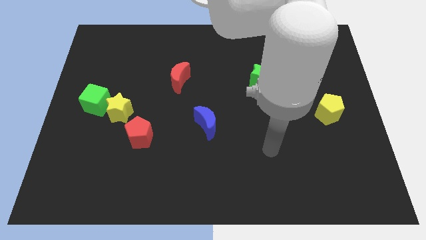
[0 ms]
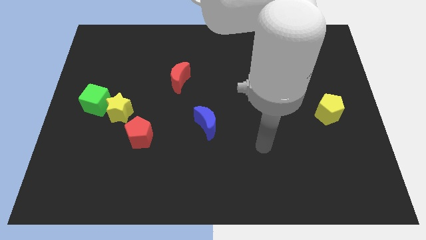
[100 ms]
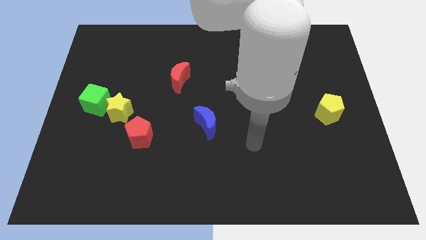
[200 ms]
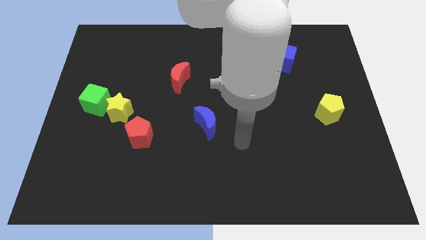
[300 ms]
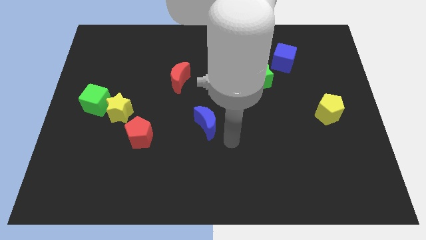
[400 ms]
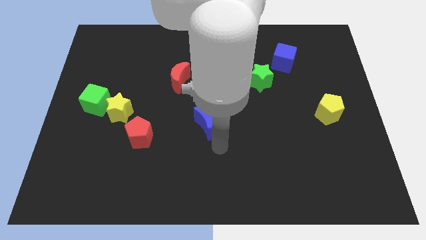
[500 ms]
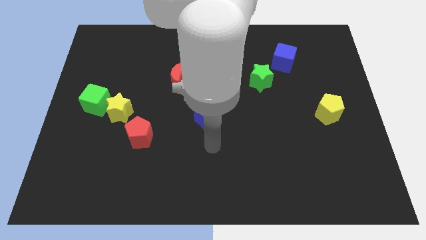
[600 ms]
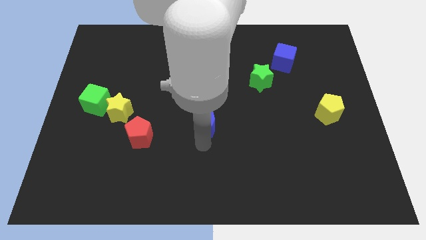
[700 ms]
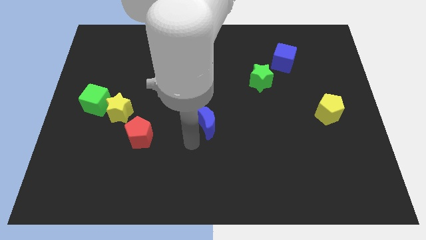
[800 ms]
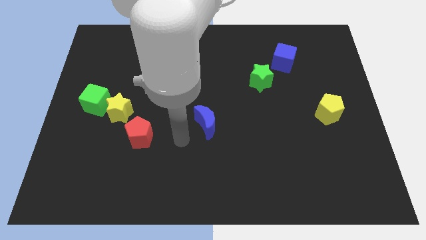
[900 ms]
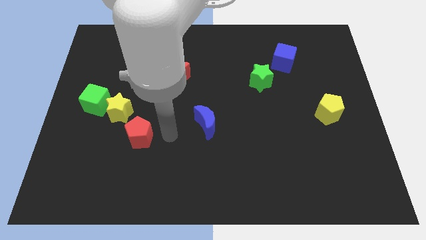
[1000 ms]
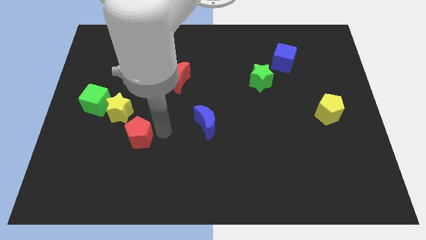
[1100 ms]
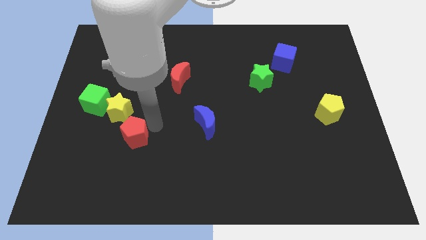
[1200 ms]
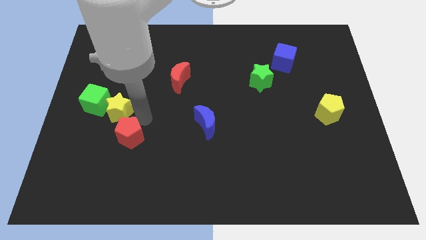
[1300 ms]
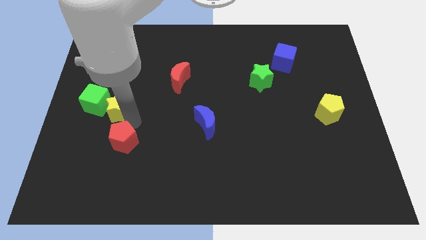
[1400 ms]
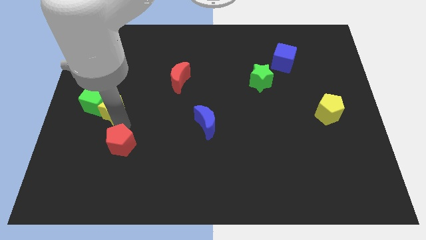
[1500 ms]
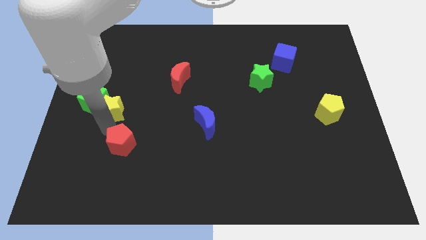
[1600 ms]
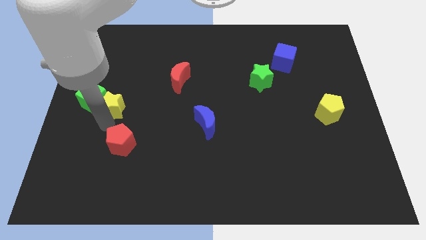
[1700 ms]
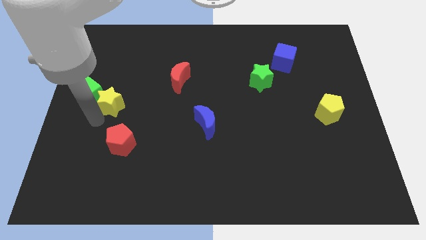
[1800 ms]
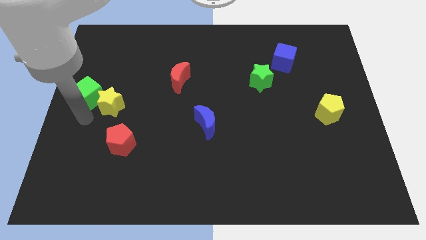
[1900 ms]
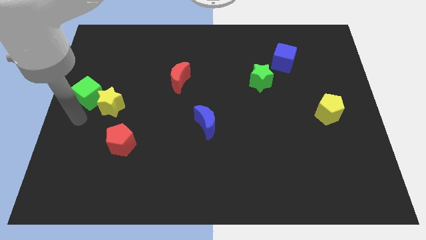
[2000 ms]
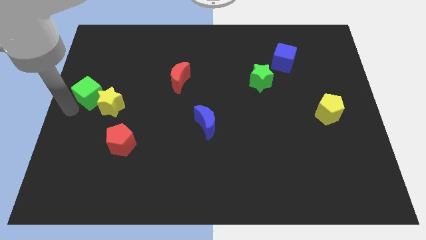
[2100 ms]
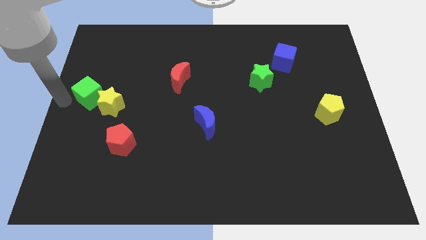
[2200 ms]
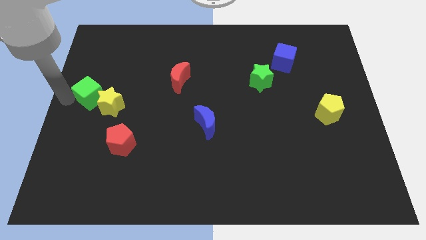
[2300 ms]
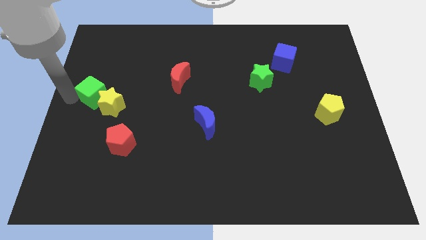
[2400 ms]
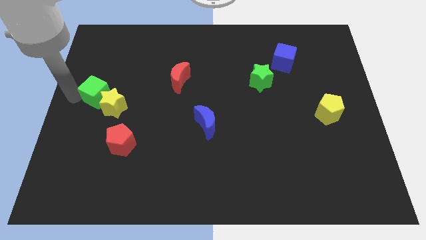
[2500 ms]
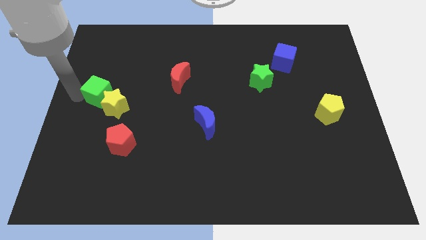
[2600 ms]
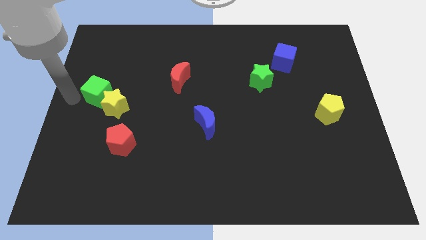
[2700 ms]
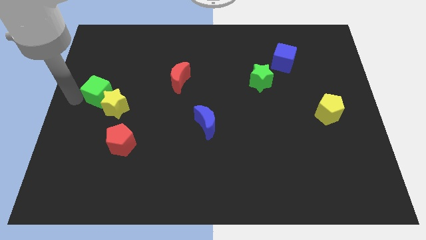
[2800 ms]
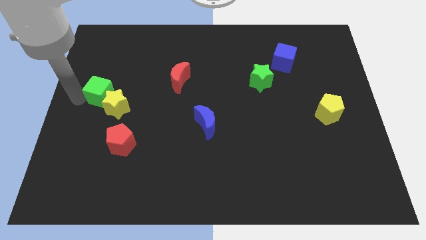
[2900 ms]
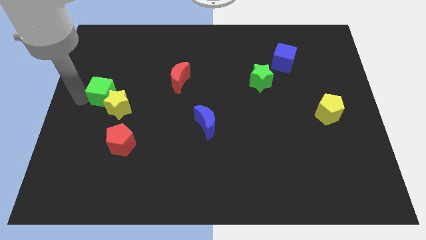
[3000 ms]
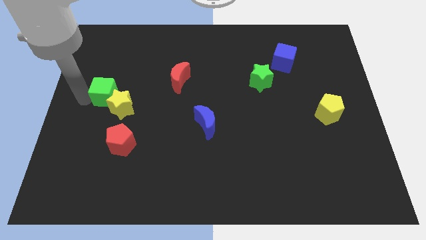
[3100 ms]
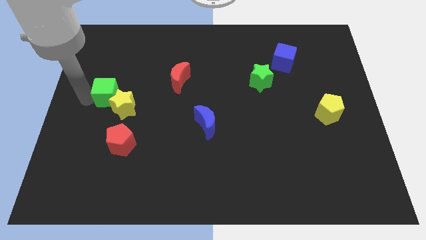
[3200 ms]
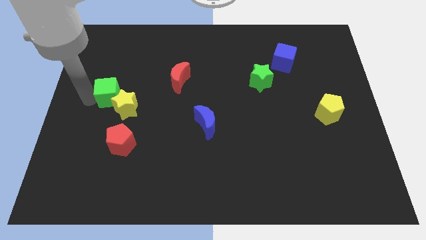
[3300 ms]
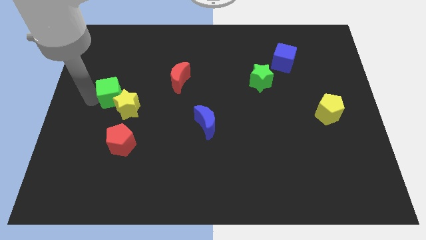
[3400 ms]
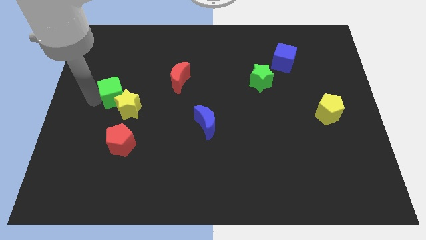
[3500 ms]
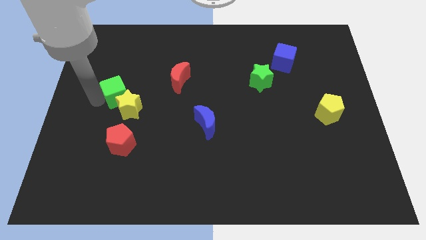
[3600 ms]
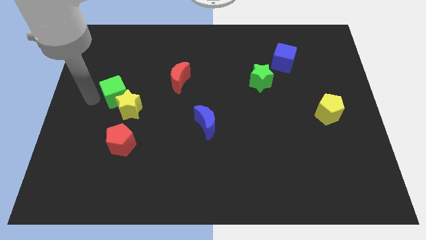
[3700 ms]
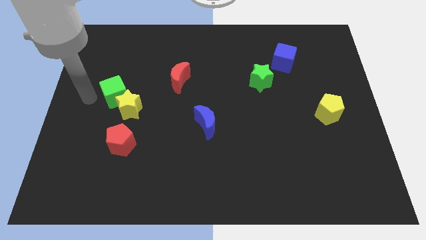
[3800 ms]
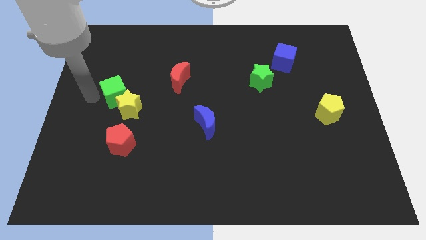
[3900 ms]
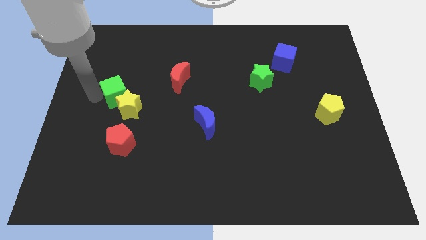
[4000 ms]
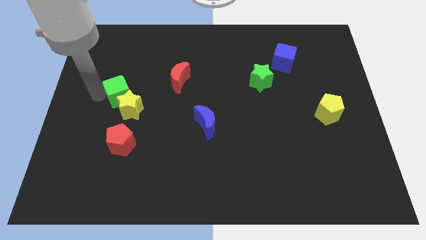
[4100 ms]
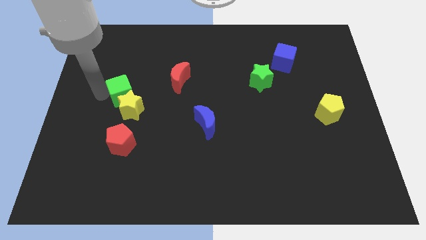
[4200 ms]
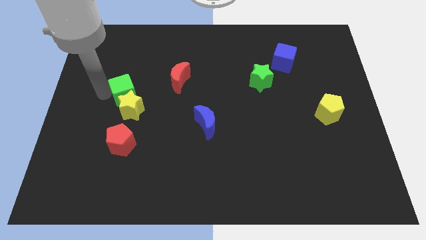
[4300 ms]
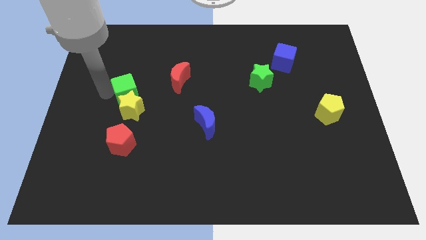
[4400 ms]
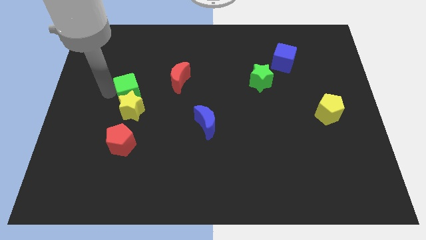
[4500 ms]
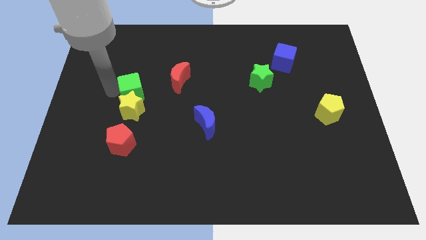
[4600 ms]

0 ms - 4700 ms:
move the green cube somewhat to the right

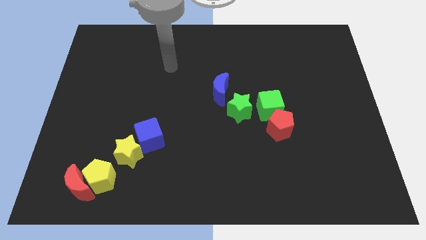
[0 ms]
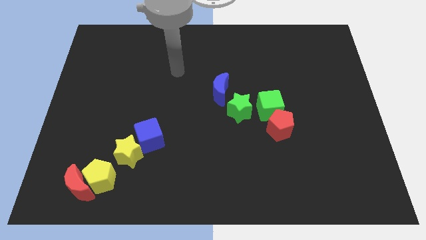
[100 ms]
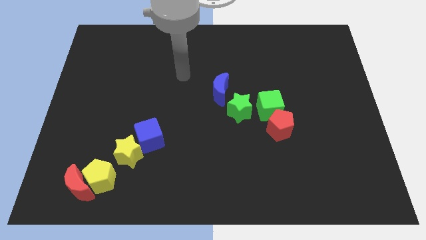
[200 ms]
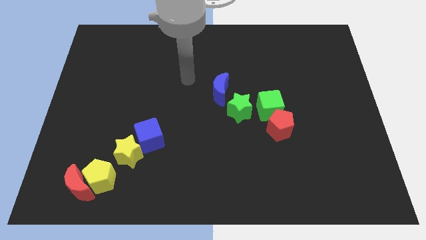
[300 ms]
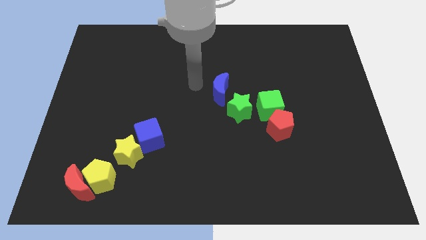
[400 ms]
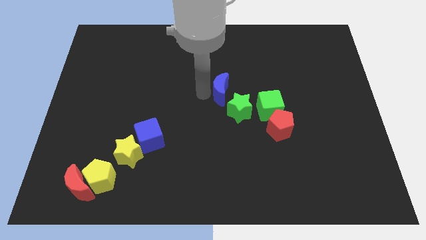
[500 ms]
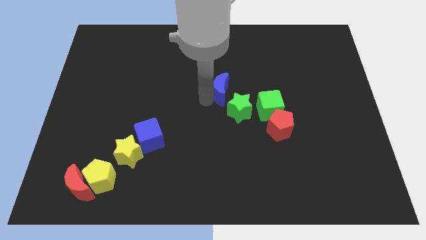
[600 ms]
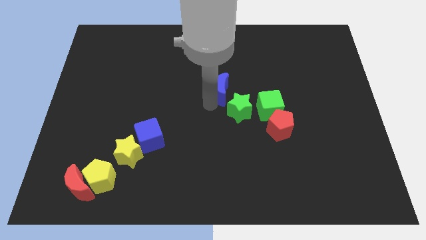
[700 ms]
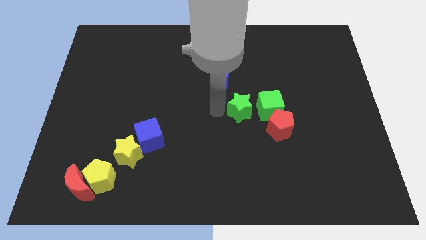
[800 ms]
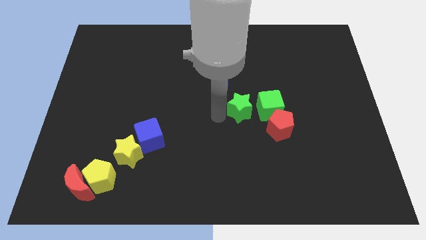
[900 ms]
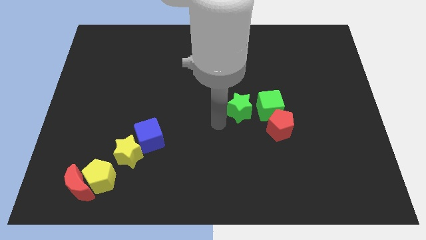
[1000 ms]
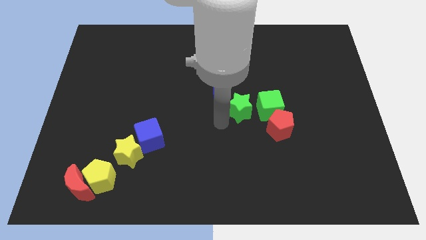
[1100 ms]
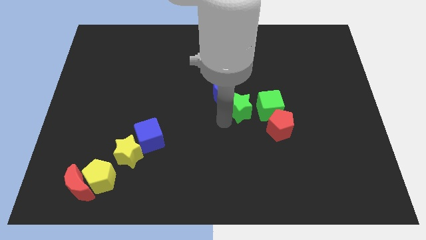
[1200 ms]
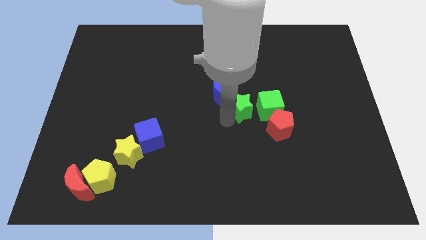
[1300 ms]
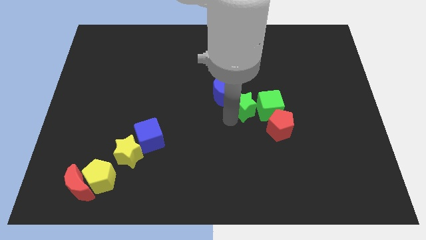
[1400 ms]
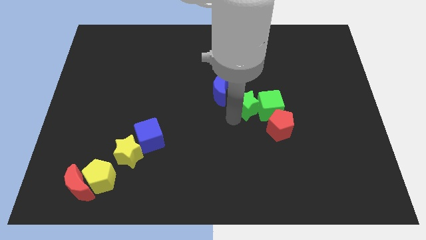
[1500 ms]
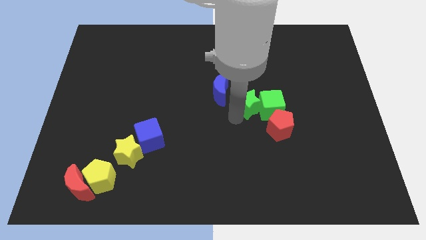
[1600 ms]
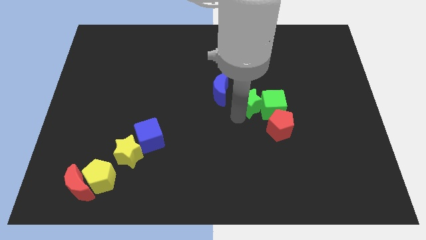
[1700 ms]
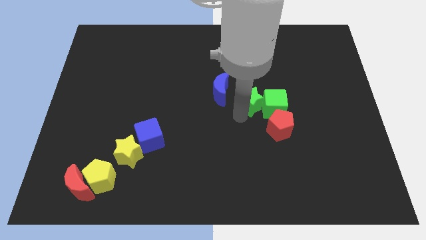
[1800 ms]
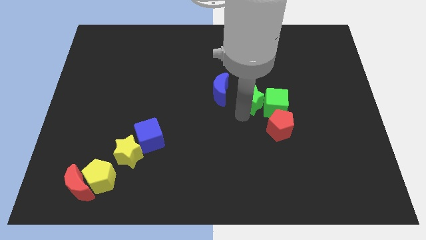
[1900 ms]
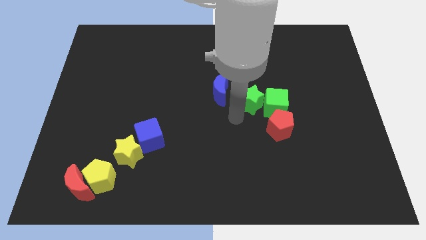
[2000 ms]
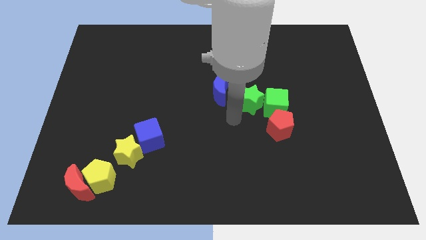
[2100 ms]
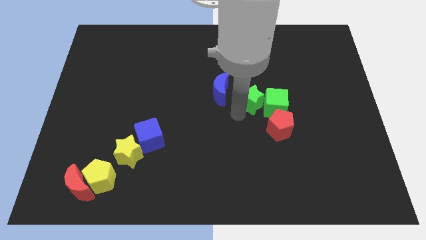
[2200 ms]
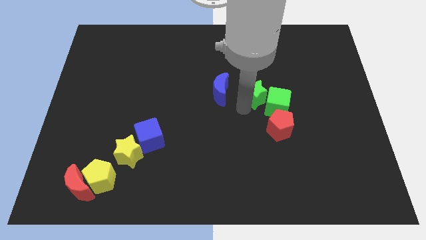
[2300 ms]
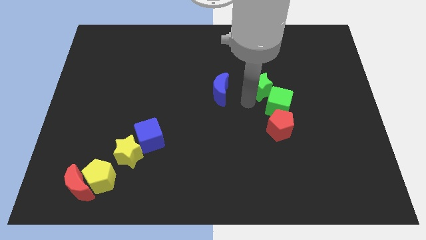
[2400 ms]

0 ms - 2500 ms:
move the green star upwards and then right slightly

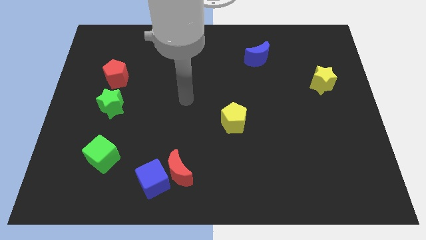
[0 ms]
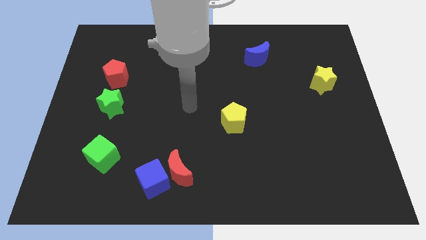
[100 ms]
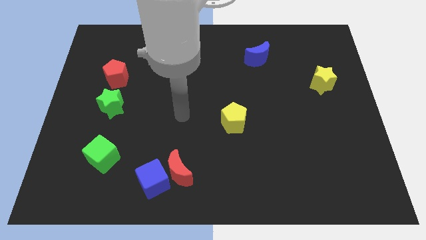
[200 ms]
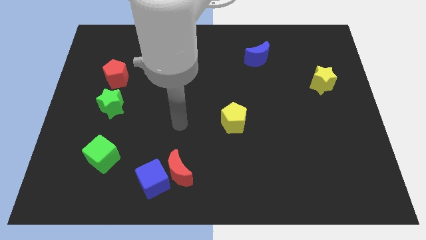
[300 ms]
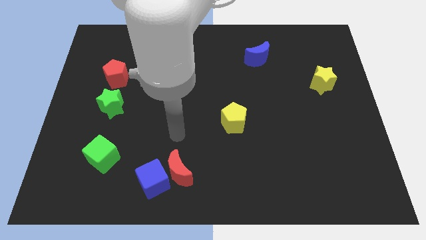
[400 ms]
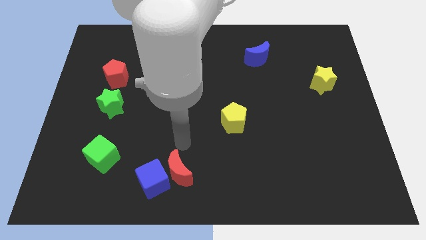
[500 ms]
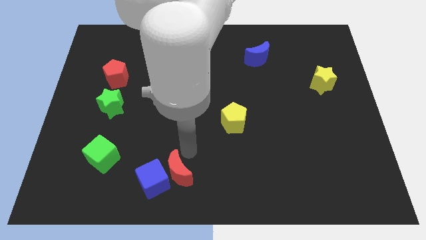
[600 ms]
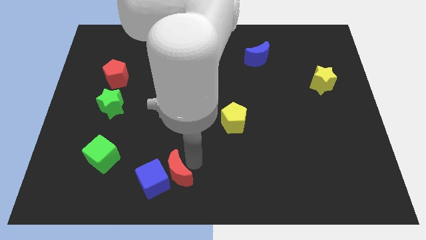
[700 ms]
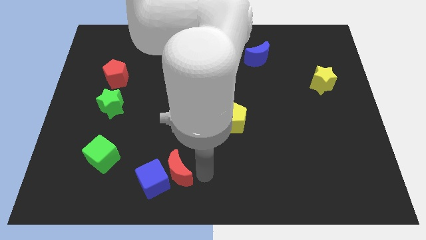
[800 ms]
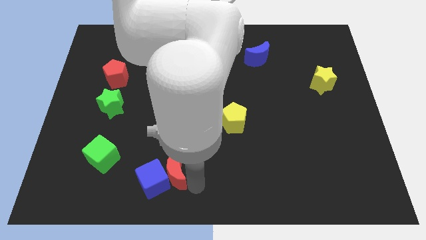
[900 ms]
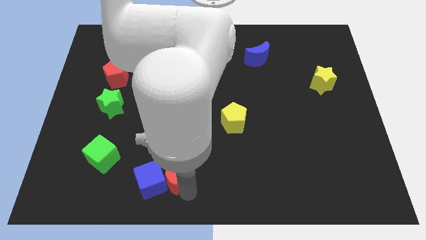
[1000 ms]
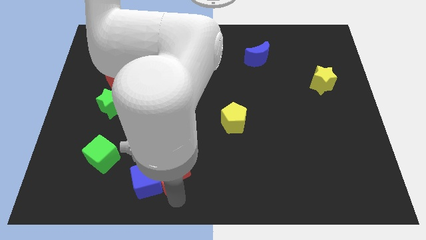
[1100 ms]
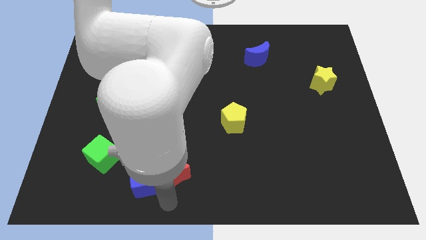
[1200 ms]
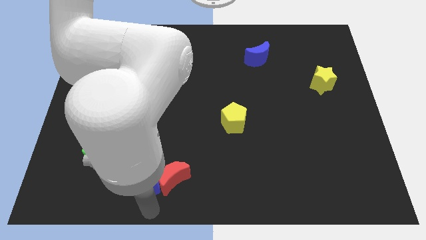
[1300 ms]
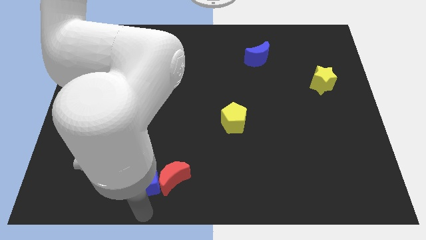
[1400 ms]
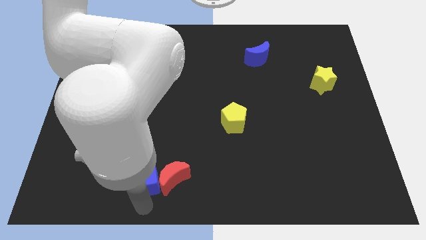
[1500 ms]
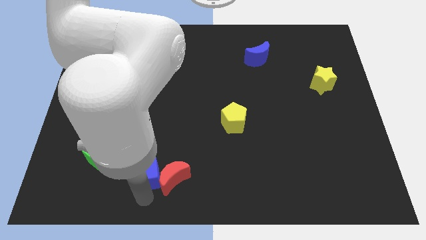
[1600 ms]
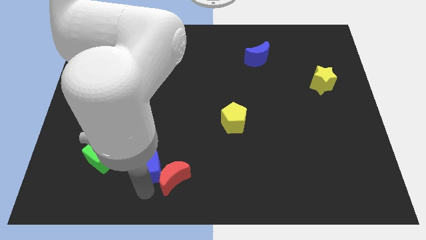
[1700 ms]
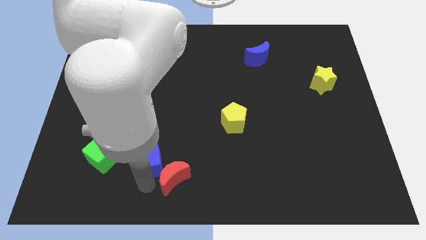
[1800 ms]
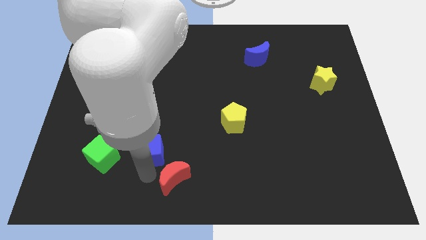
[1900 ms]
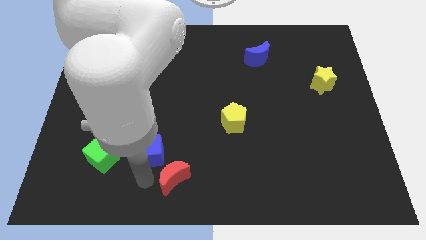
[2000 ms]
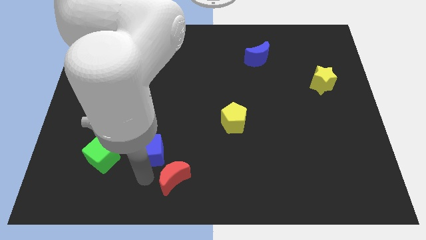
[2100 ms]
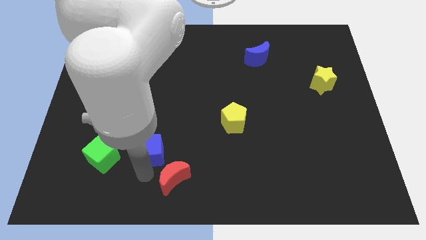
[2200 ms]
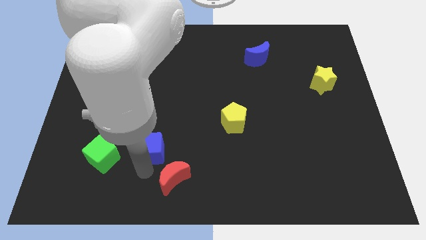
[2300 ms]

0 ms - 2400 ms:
slide the blue cube a little bit up
